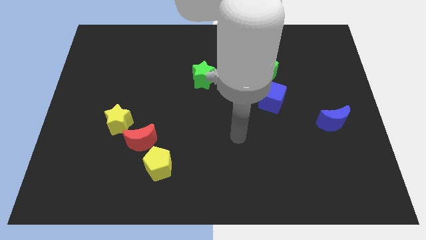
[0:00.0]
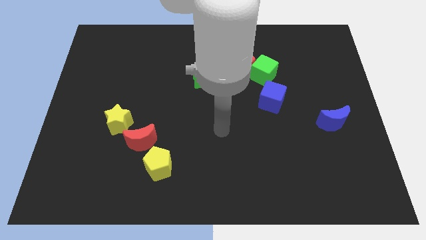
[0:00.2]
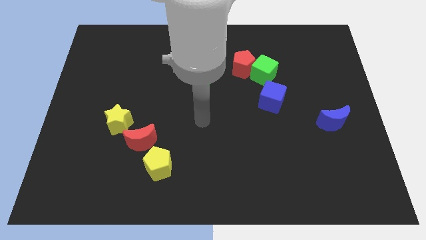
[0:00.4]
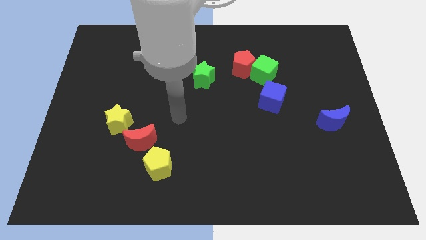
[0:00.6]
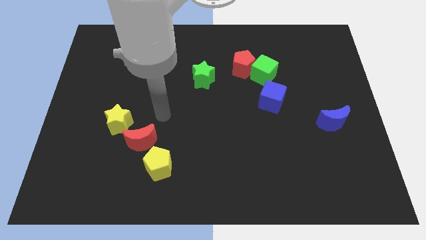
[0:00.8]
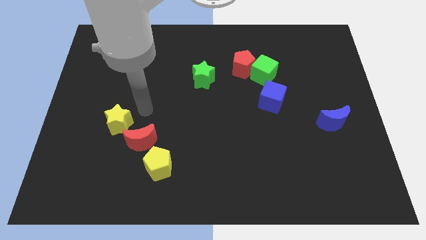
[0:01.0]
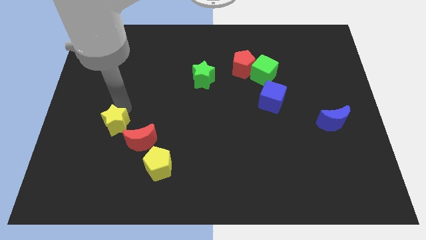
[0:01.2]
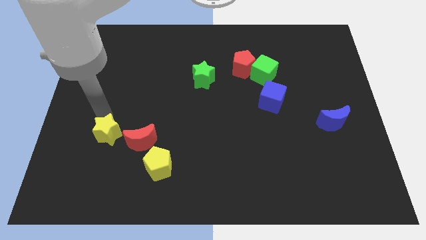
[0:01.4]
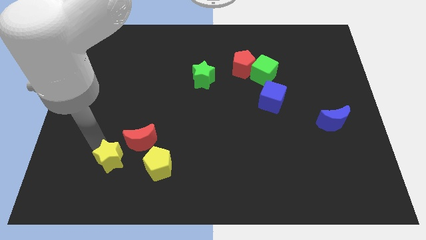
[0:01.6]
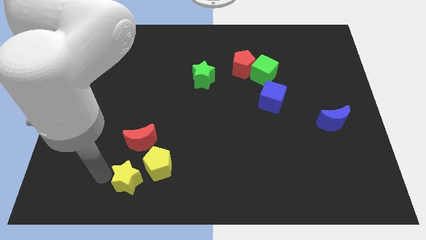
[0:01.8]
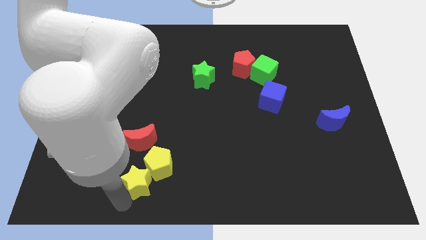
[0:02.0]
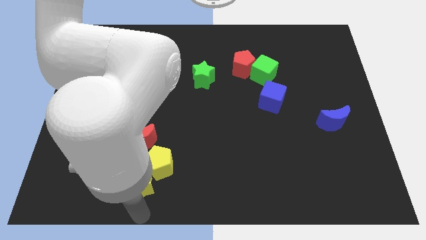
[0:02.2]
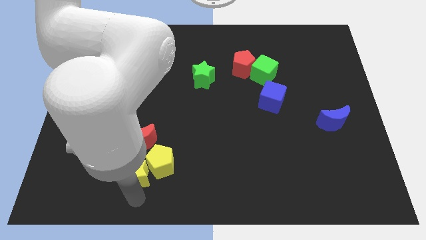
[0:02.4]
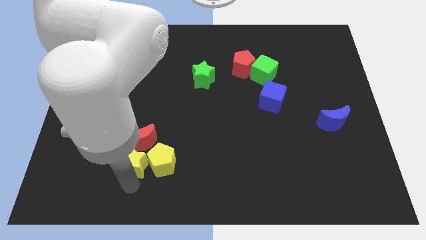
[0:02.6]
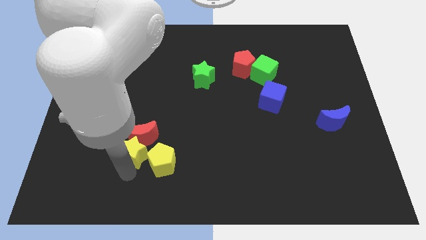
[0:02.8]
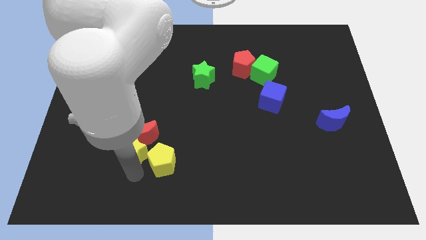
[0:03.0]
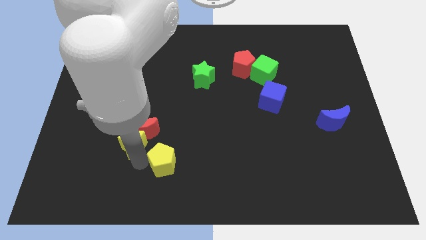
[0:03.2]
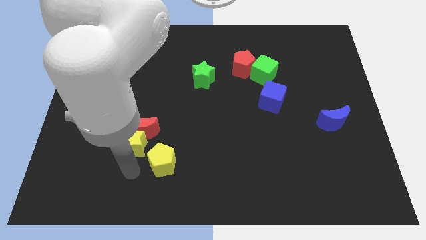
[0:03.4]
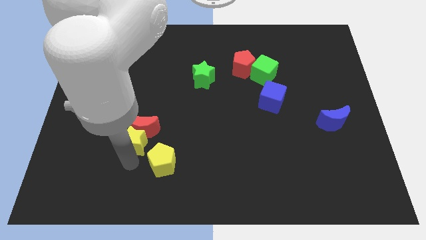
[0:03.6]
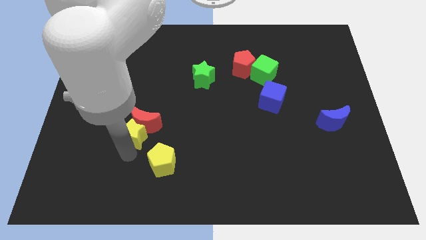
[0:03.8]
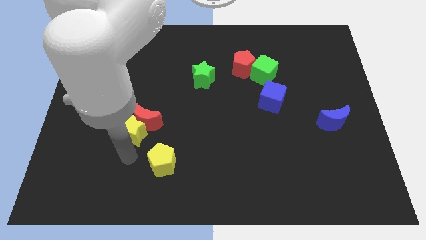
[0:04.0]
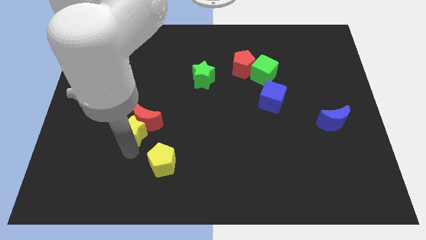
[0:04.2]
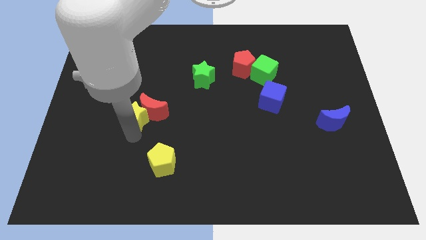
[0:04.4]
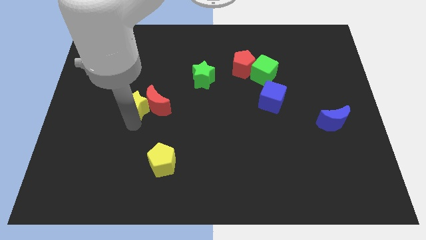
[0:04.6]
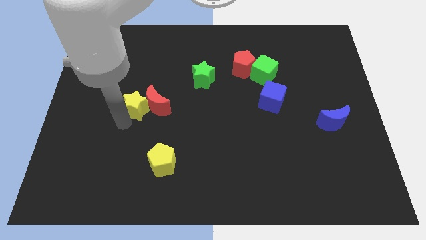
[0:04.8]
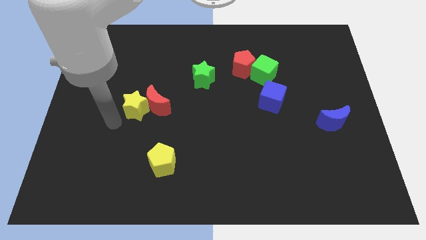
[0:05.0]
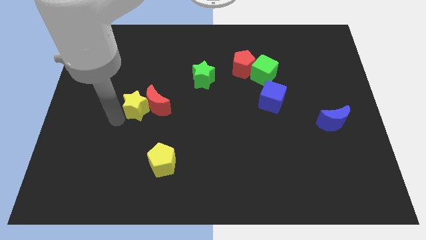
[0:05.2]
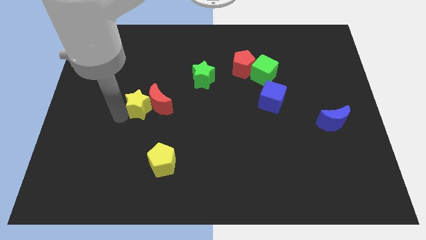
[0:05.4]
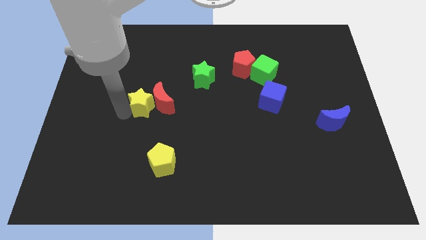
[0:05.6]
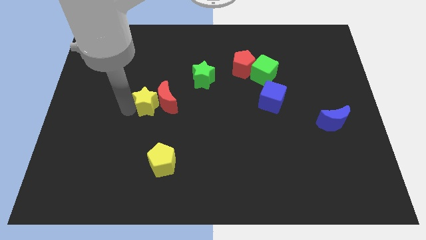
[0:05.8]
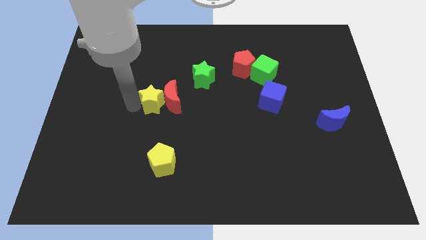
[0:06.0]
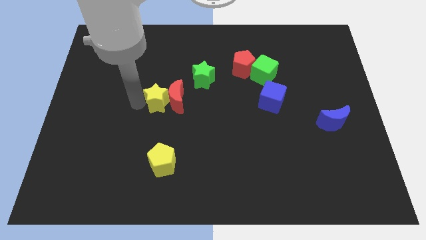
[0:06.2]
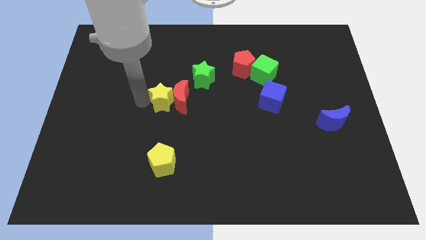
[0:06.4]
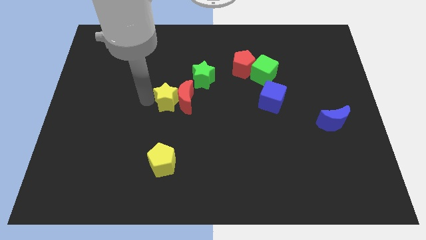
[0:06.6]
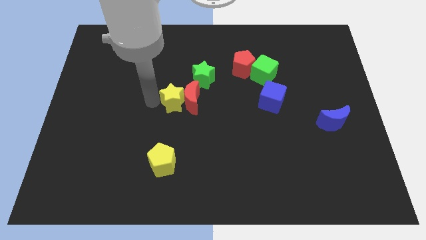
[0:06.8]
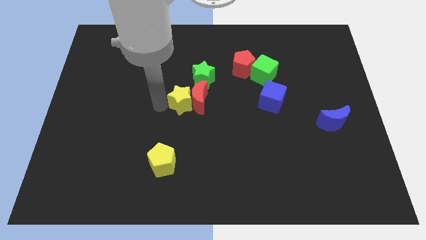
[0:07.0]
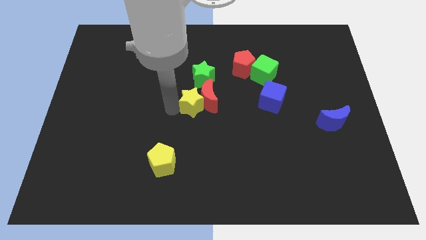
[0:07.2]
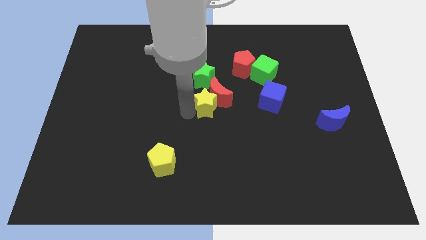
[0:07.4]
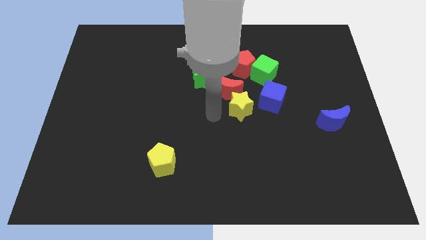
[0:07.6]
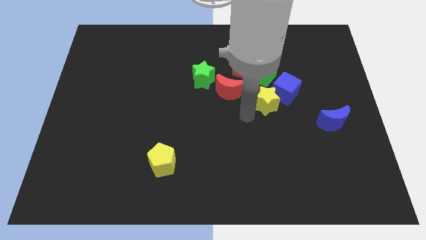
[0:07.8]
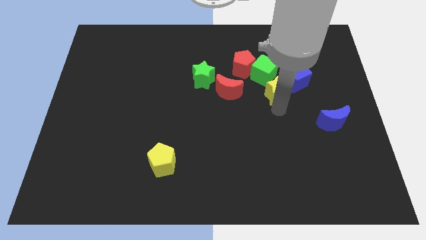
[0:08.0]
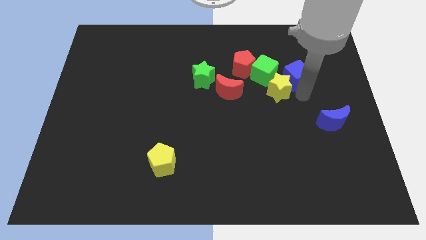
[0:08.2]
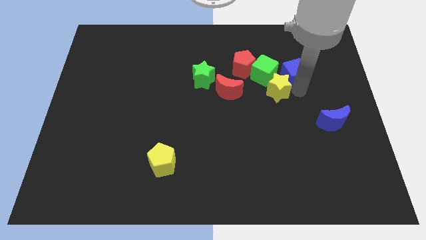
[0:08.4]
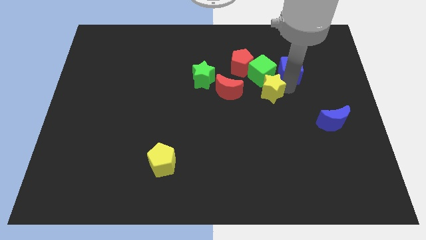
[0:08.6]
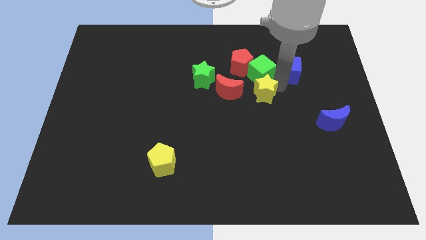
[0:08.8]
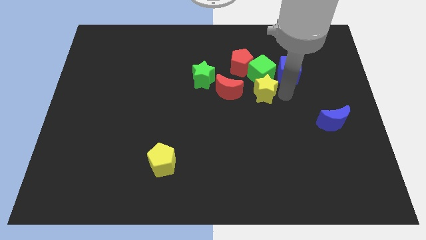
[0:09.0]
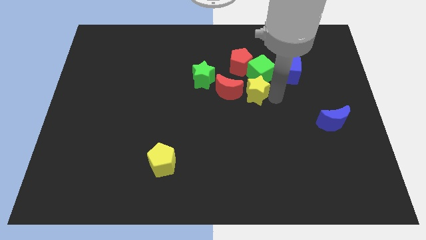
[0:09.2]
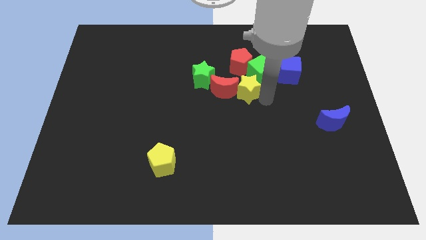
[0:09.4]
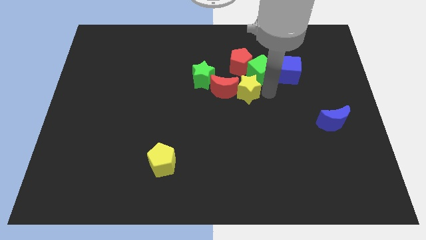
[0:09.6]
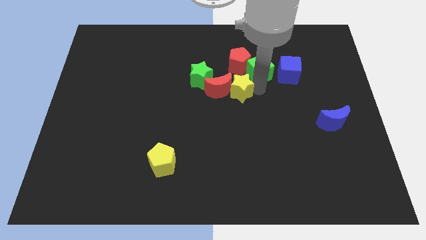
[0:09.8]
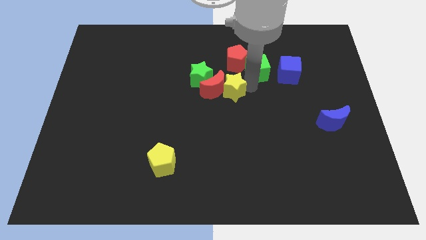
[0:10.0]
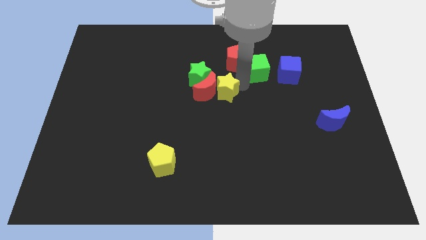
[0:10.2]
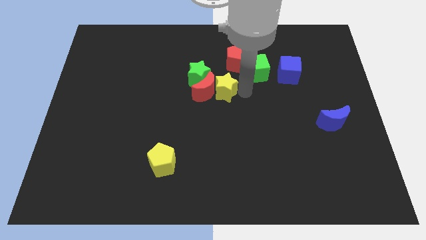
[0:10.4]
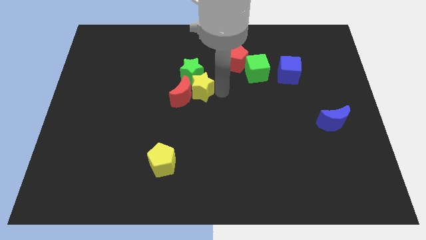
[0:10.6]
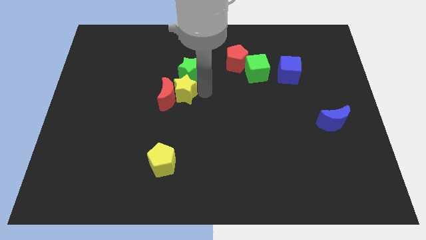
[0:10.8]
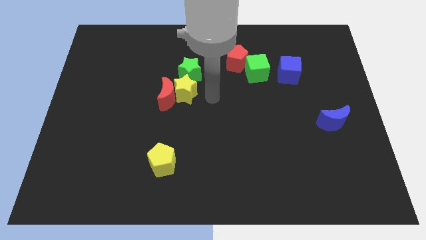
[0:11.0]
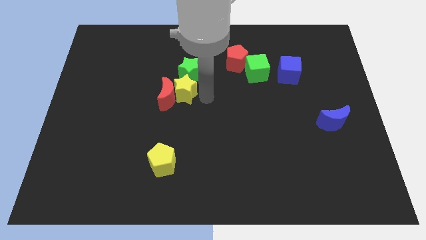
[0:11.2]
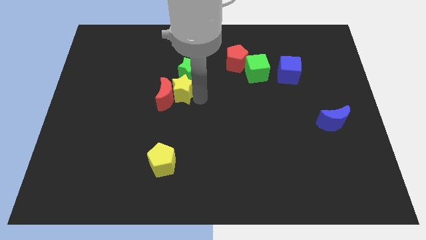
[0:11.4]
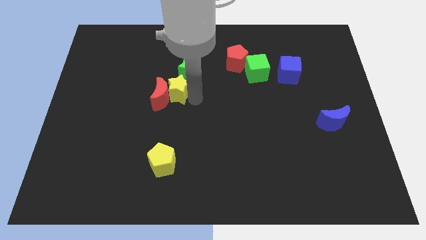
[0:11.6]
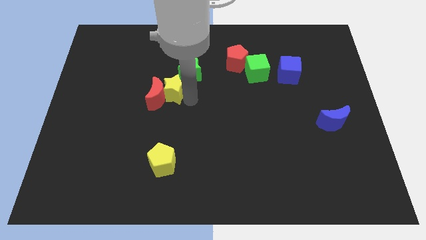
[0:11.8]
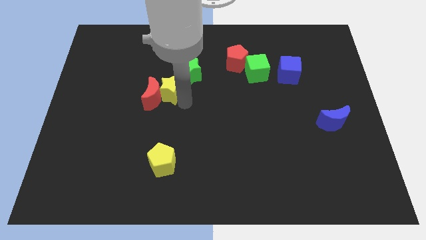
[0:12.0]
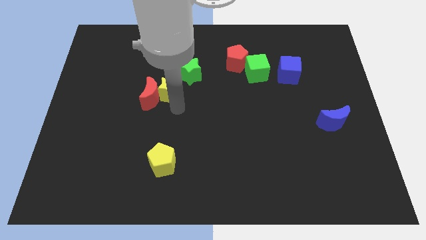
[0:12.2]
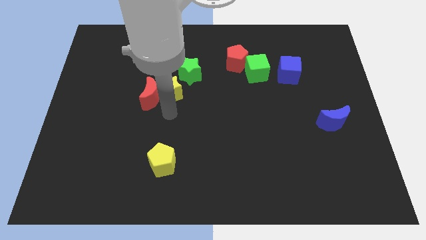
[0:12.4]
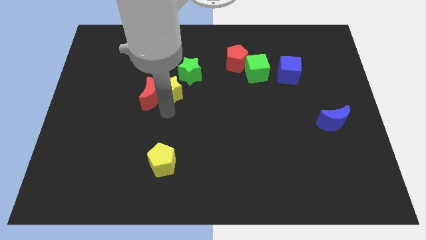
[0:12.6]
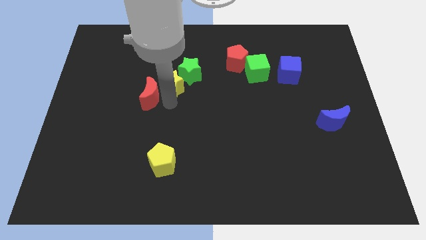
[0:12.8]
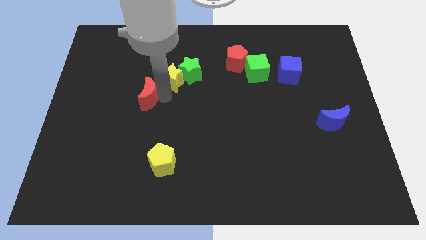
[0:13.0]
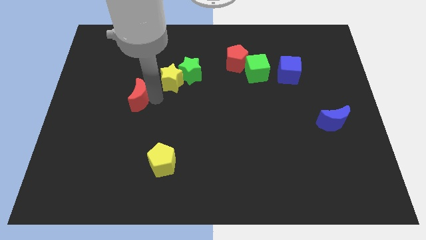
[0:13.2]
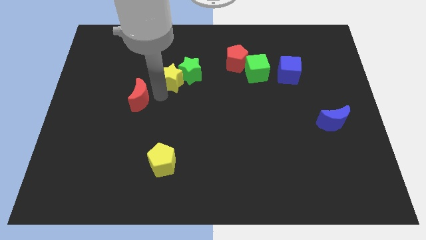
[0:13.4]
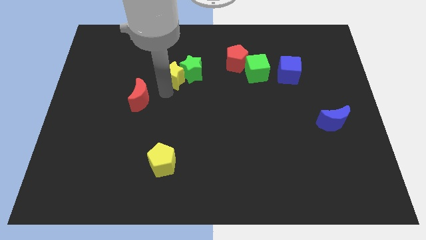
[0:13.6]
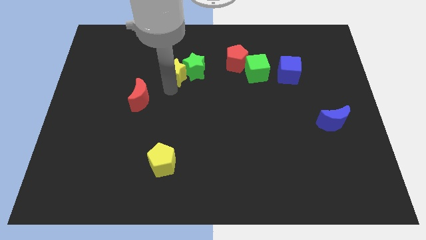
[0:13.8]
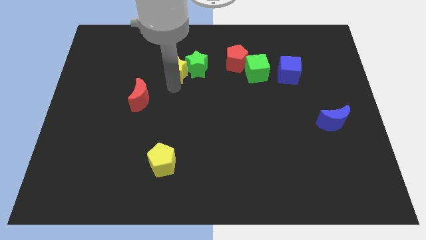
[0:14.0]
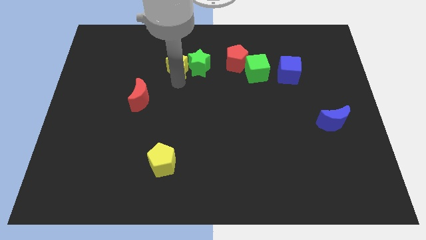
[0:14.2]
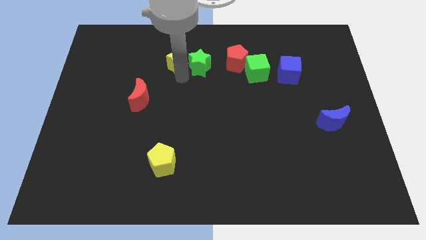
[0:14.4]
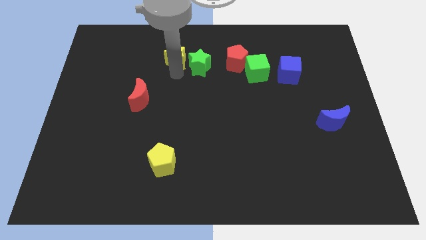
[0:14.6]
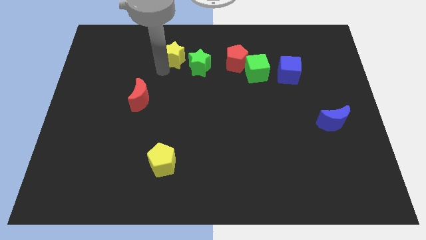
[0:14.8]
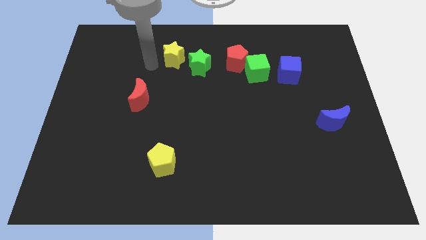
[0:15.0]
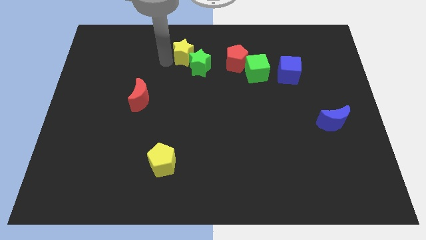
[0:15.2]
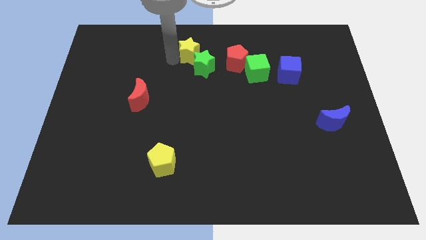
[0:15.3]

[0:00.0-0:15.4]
slide the yellow star to the top side
